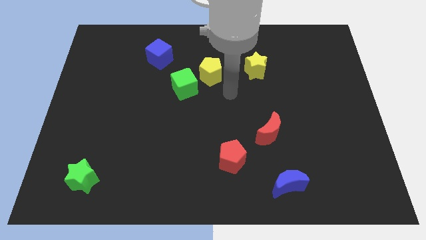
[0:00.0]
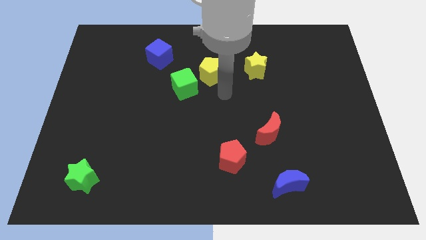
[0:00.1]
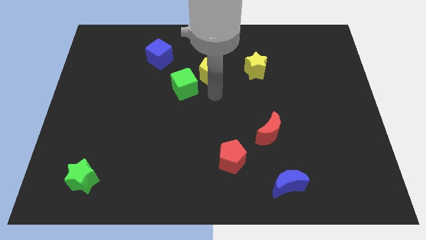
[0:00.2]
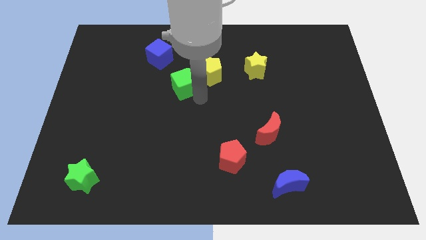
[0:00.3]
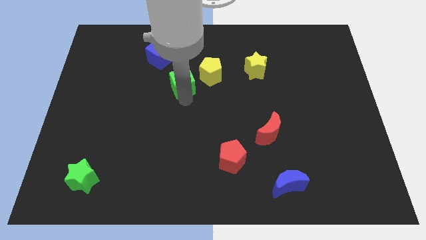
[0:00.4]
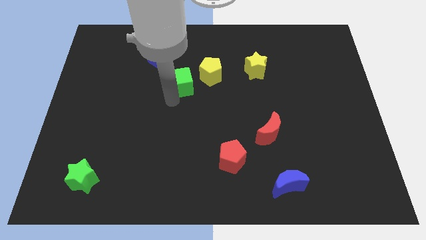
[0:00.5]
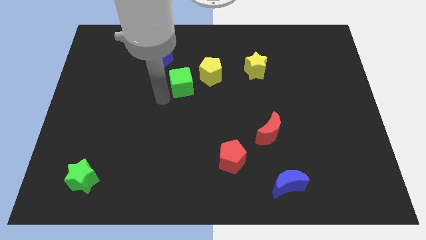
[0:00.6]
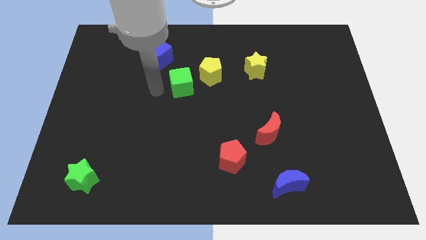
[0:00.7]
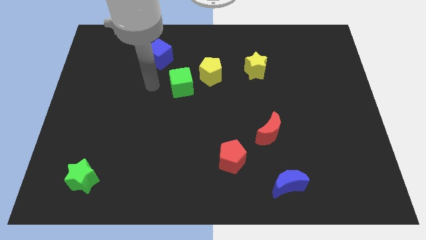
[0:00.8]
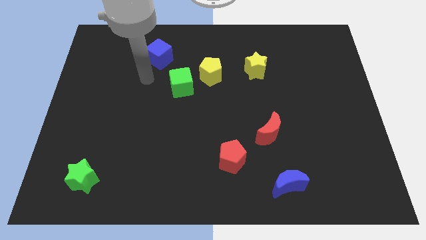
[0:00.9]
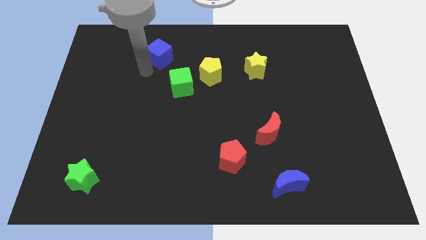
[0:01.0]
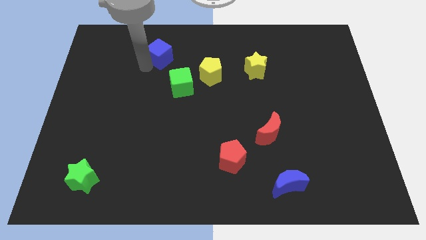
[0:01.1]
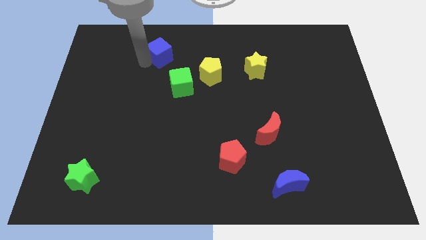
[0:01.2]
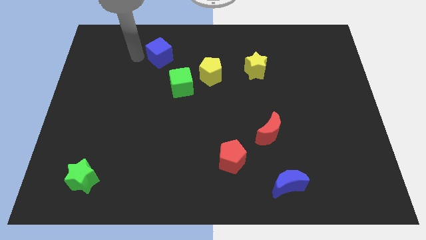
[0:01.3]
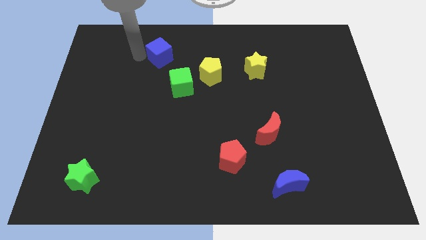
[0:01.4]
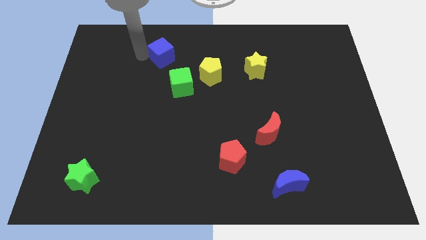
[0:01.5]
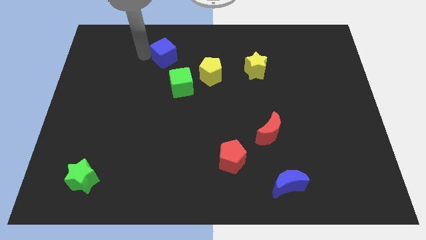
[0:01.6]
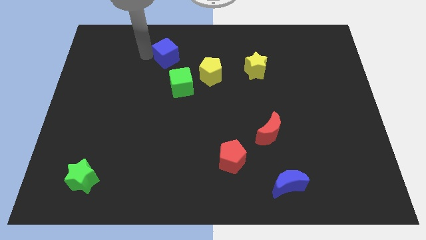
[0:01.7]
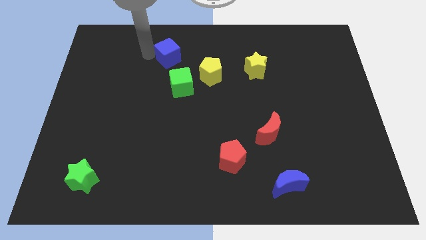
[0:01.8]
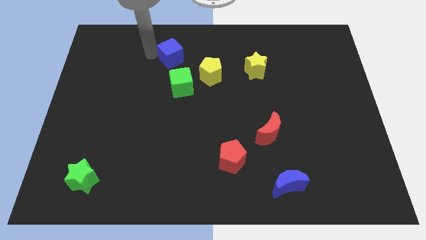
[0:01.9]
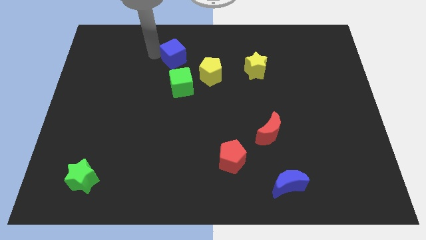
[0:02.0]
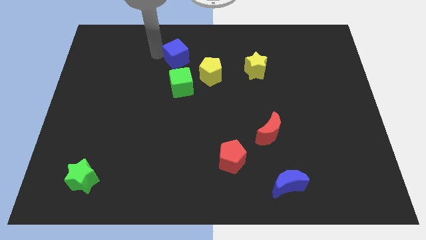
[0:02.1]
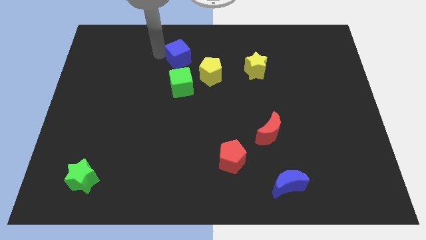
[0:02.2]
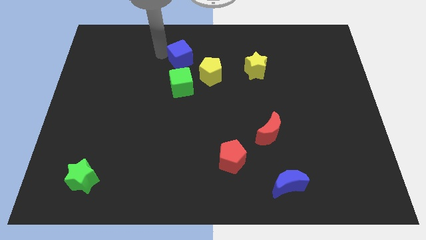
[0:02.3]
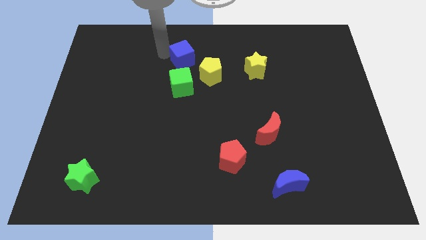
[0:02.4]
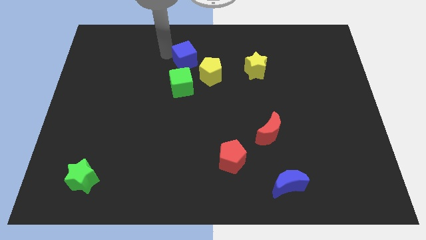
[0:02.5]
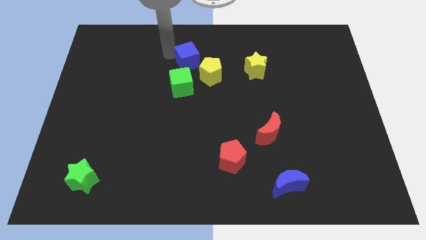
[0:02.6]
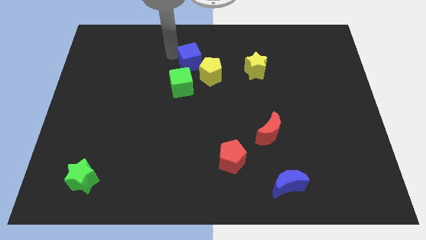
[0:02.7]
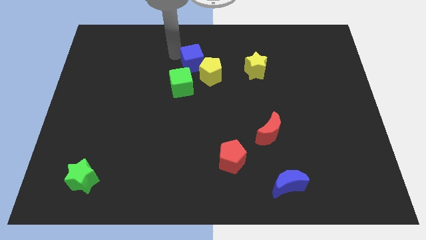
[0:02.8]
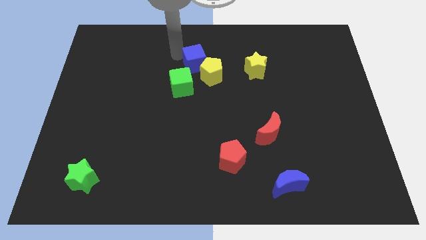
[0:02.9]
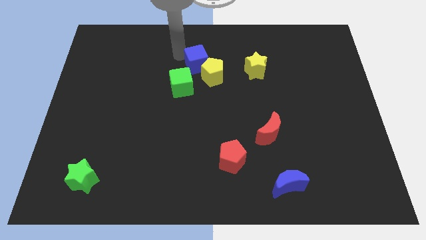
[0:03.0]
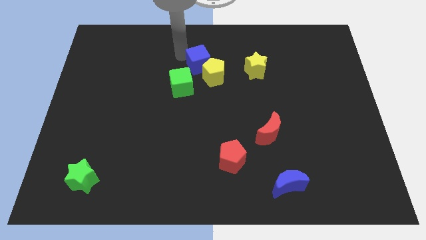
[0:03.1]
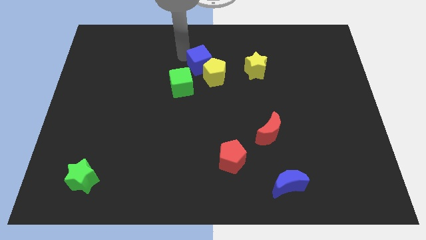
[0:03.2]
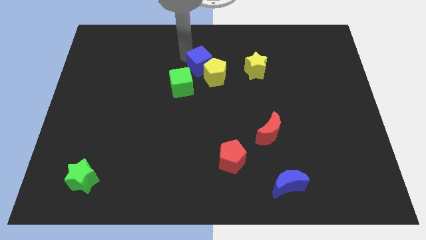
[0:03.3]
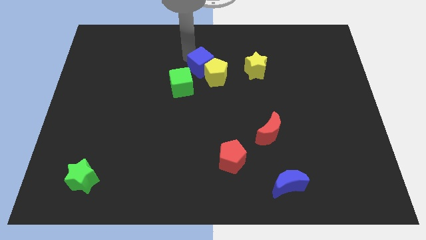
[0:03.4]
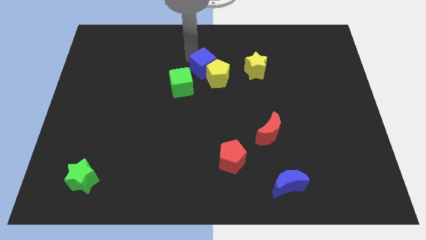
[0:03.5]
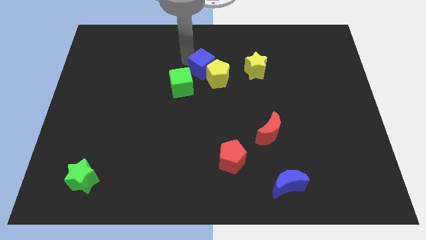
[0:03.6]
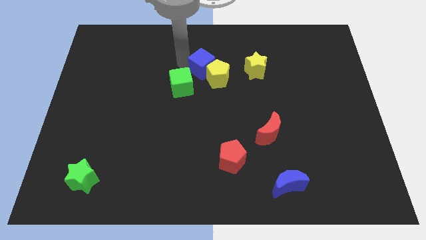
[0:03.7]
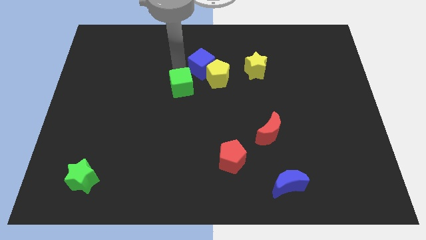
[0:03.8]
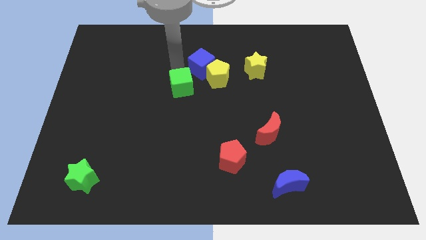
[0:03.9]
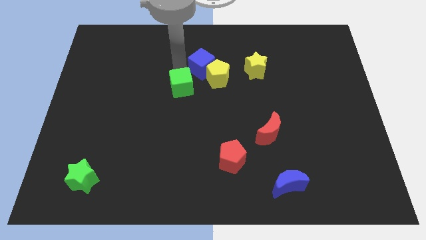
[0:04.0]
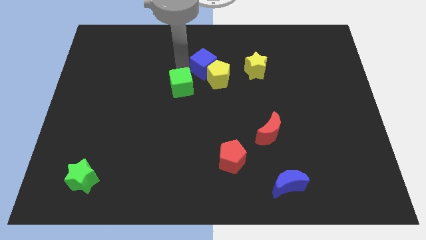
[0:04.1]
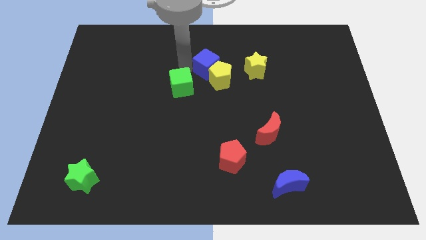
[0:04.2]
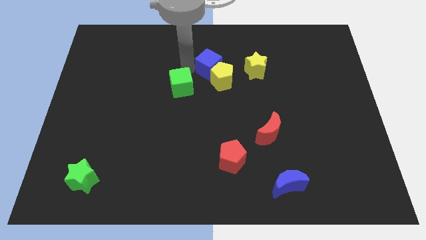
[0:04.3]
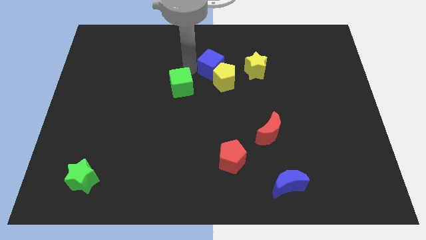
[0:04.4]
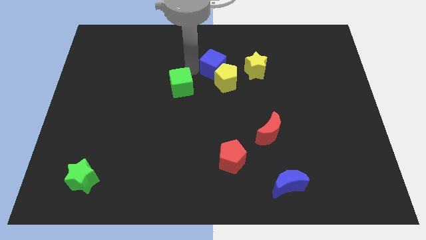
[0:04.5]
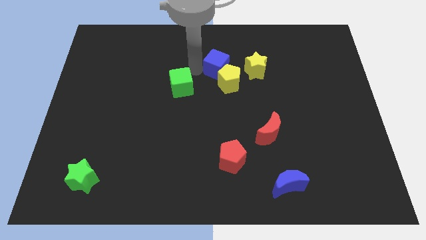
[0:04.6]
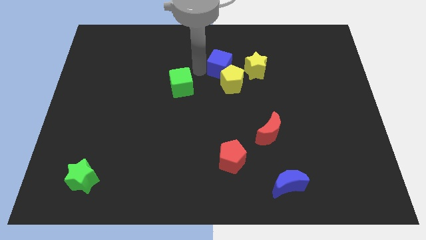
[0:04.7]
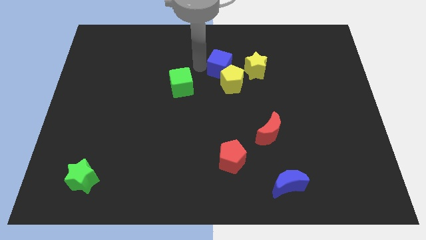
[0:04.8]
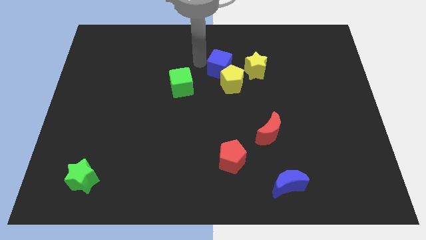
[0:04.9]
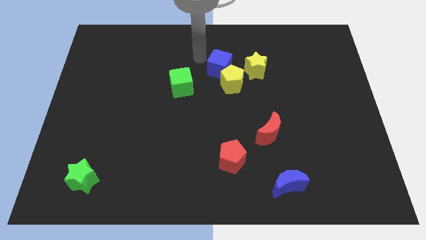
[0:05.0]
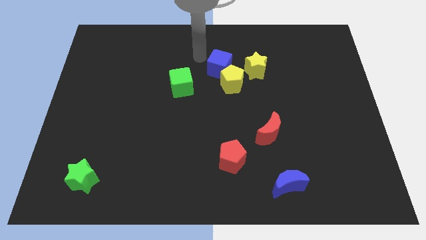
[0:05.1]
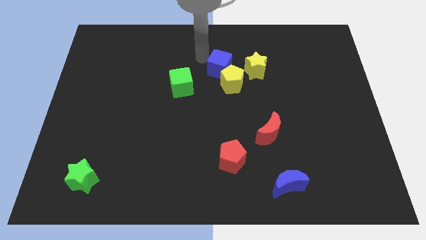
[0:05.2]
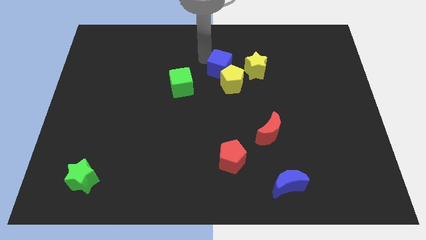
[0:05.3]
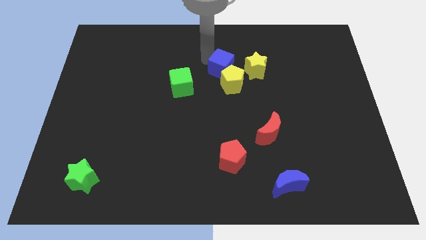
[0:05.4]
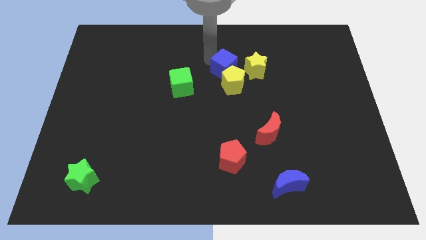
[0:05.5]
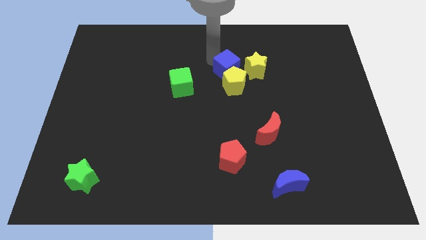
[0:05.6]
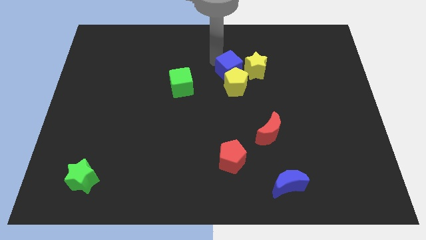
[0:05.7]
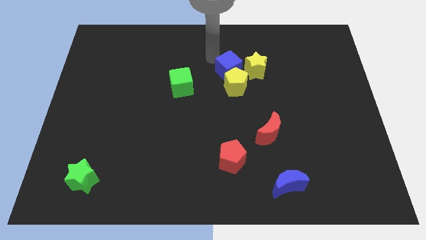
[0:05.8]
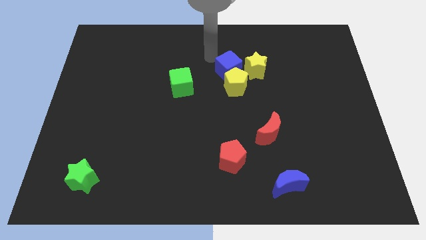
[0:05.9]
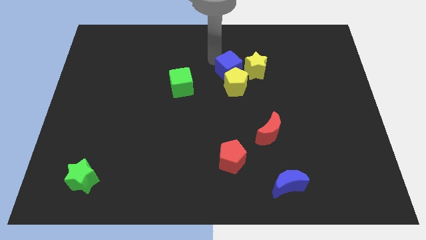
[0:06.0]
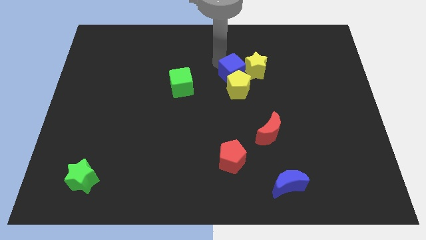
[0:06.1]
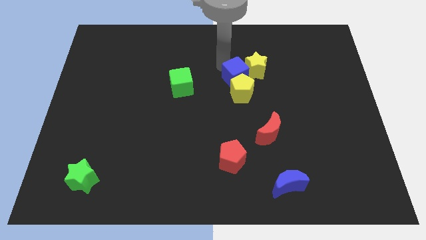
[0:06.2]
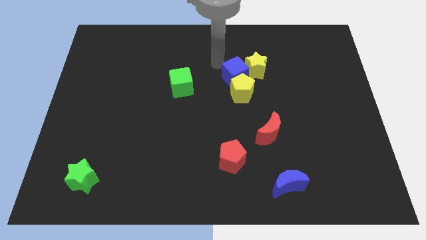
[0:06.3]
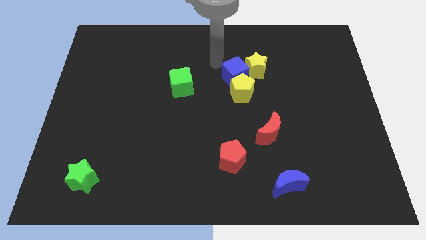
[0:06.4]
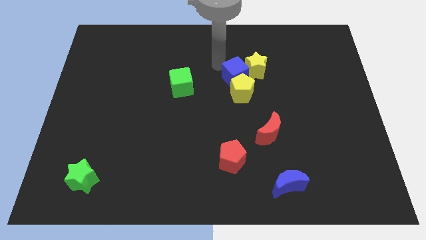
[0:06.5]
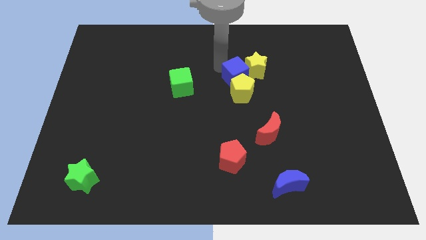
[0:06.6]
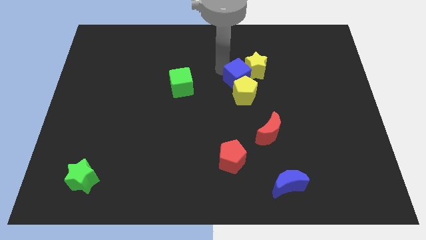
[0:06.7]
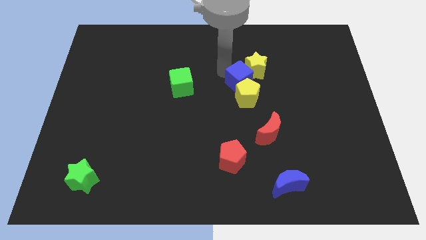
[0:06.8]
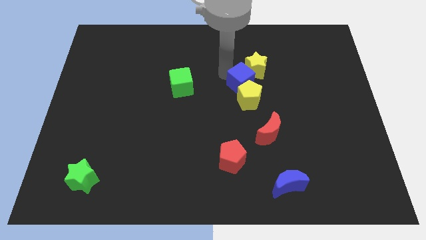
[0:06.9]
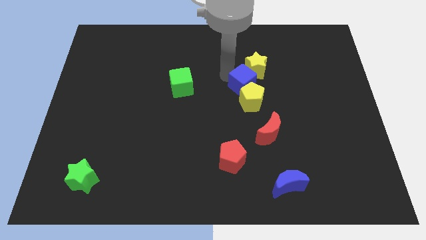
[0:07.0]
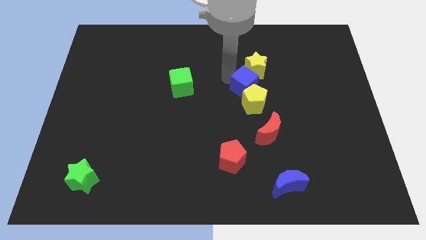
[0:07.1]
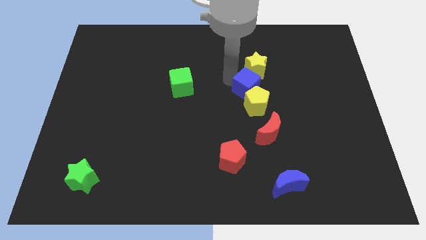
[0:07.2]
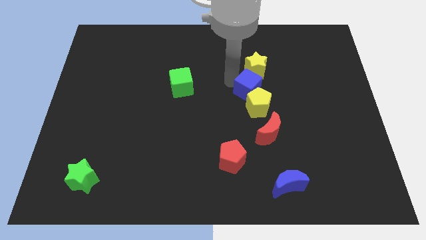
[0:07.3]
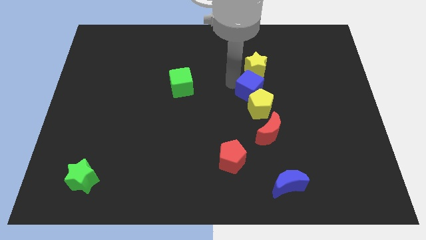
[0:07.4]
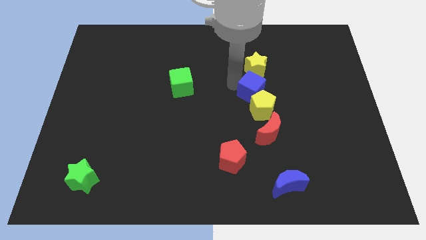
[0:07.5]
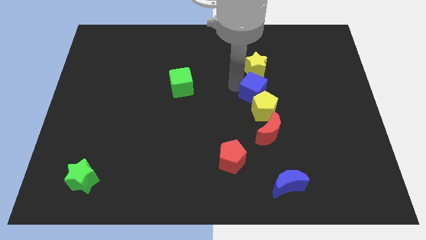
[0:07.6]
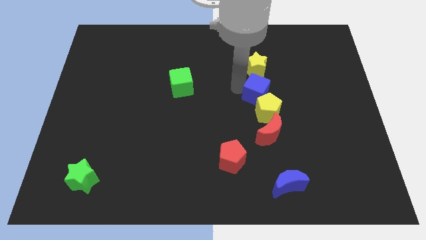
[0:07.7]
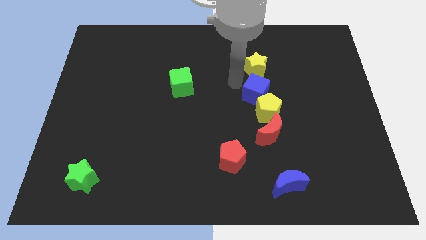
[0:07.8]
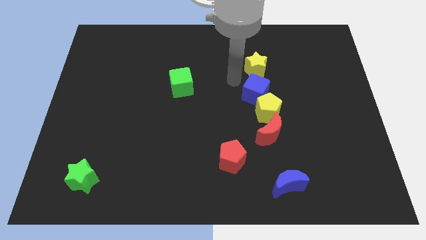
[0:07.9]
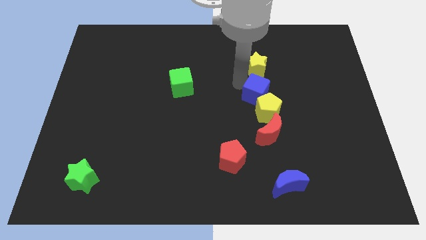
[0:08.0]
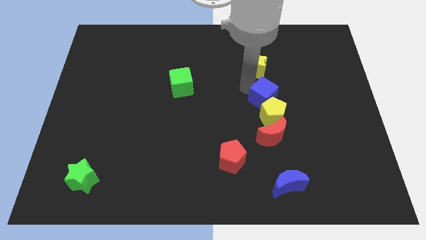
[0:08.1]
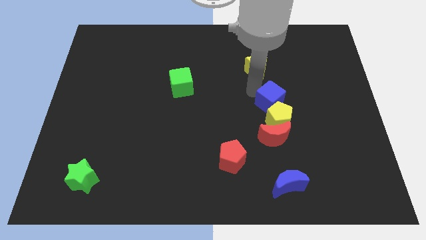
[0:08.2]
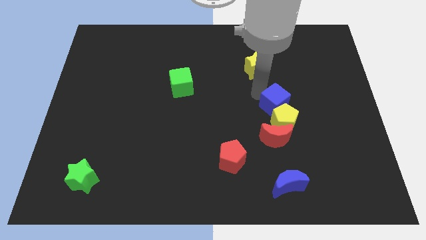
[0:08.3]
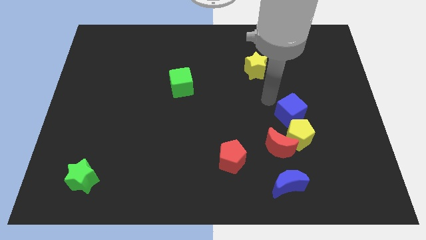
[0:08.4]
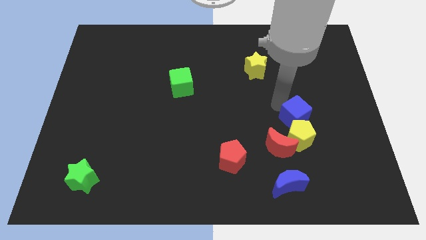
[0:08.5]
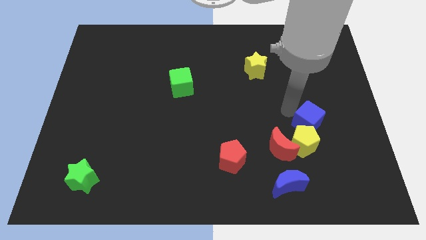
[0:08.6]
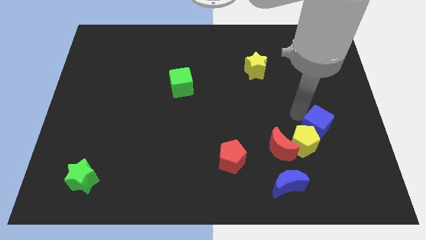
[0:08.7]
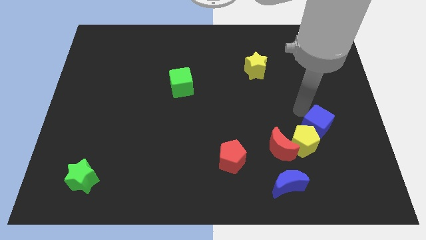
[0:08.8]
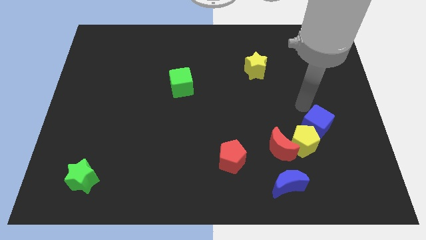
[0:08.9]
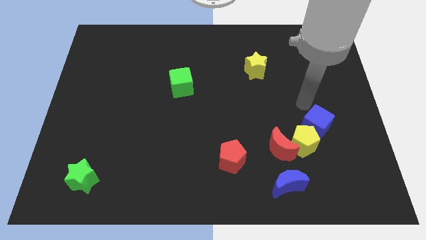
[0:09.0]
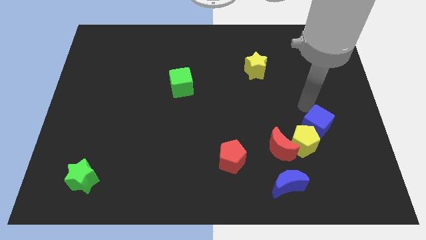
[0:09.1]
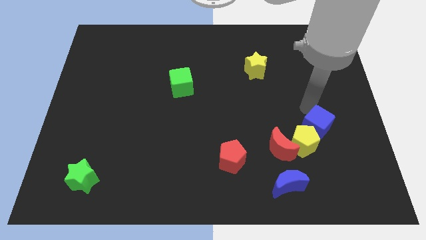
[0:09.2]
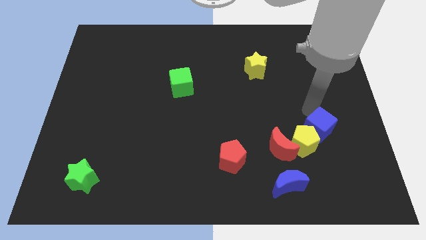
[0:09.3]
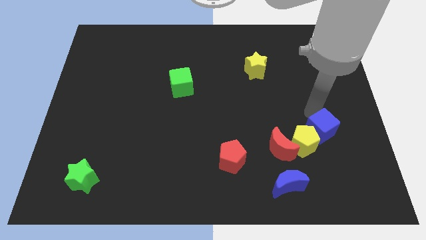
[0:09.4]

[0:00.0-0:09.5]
slide the blue cube just right of the red moon
